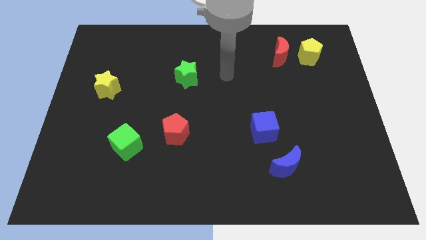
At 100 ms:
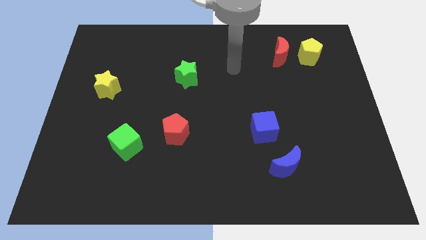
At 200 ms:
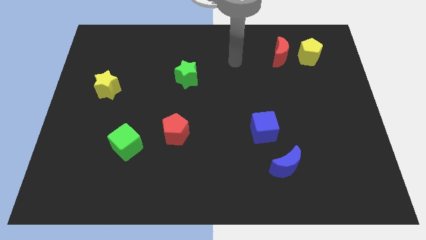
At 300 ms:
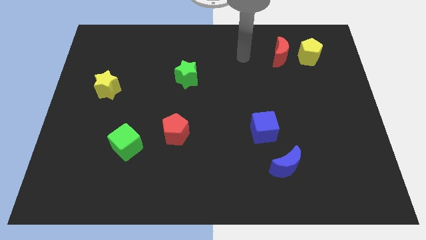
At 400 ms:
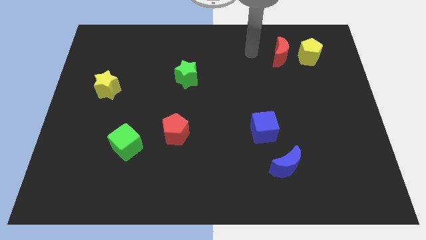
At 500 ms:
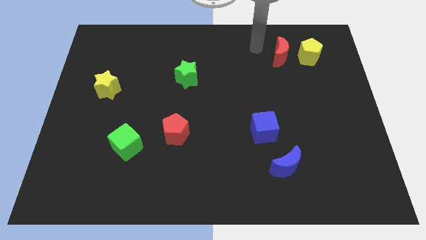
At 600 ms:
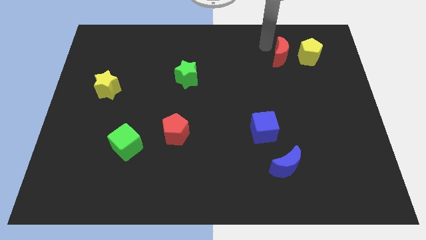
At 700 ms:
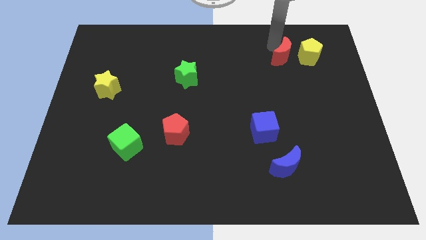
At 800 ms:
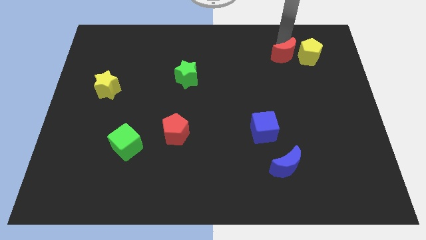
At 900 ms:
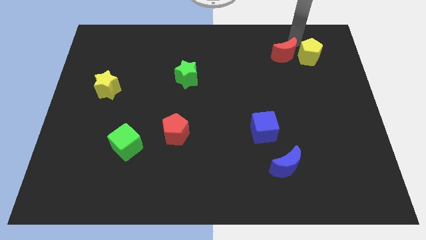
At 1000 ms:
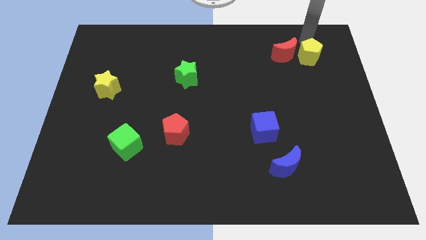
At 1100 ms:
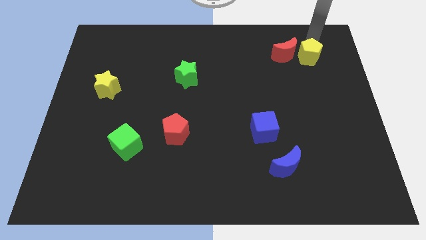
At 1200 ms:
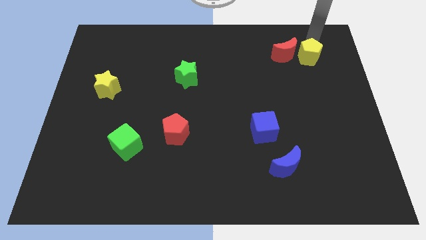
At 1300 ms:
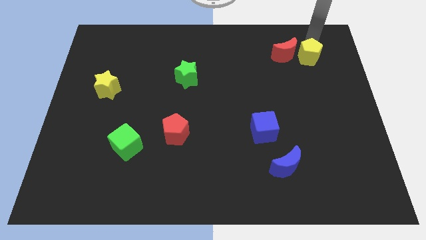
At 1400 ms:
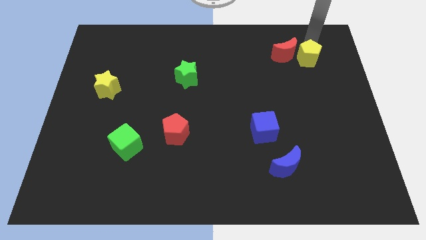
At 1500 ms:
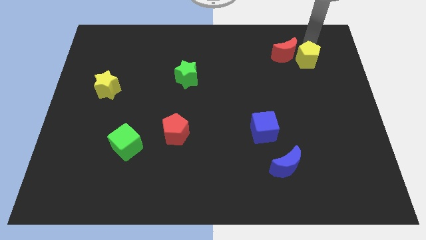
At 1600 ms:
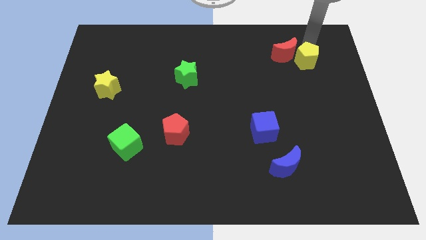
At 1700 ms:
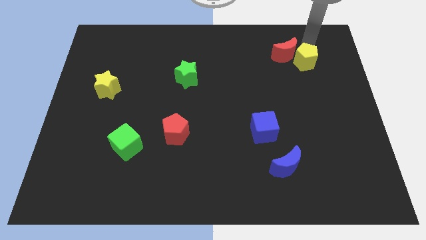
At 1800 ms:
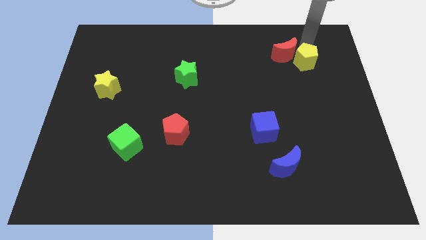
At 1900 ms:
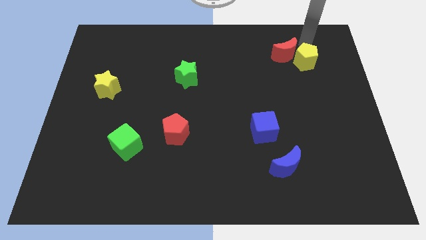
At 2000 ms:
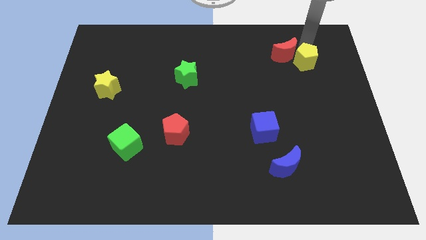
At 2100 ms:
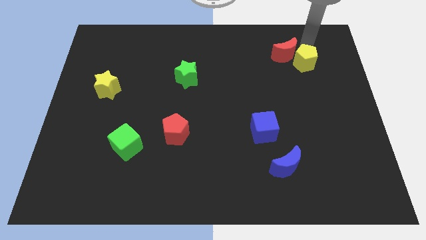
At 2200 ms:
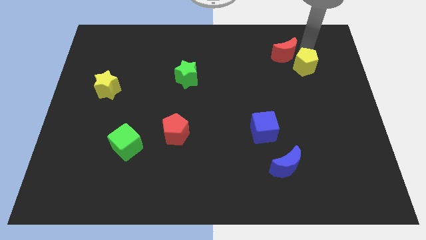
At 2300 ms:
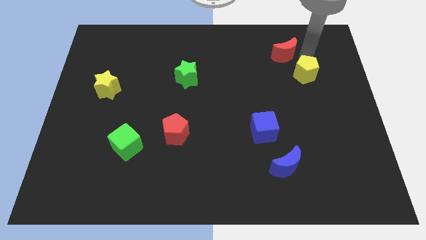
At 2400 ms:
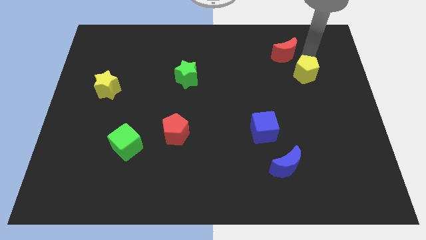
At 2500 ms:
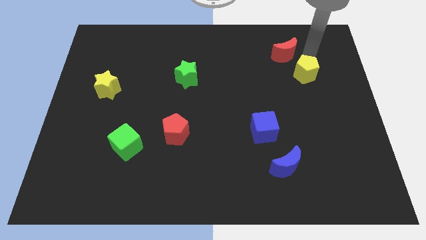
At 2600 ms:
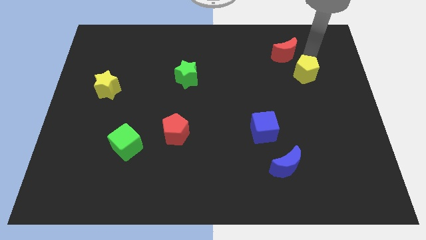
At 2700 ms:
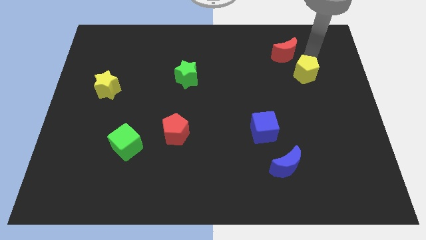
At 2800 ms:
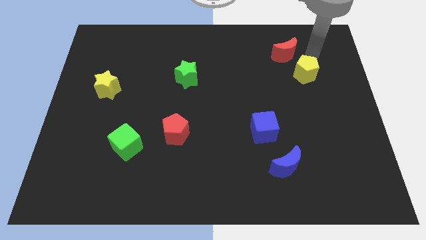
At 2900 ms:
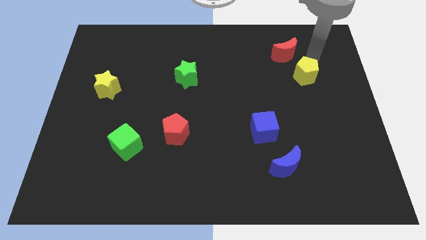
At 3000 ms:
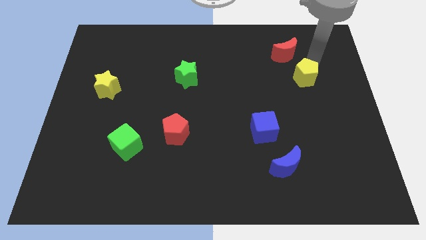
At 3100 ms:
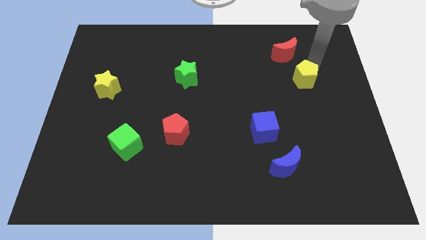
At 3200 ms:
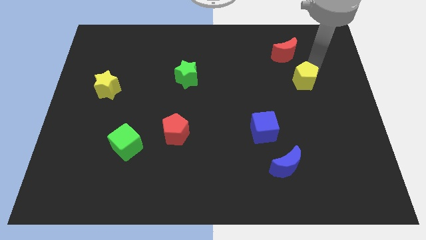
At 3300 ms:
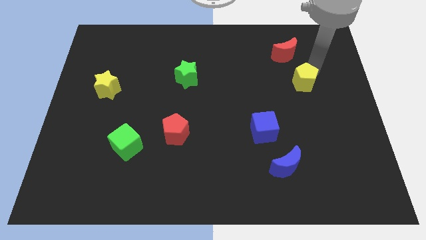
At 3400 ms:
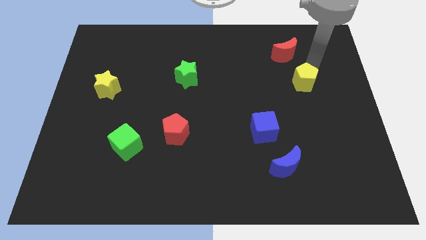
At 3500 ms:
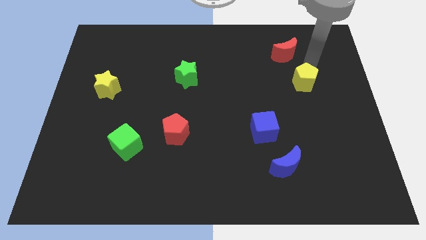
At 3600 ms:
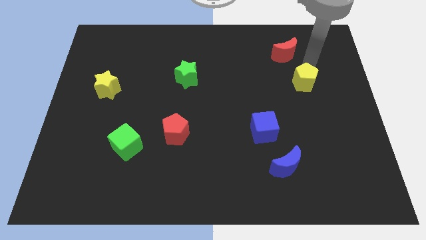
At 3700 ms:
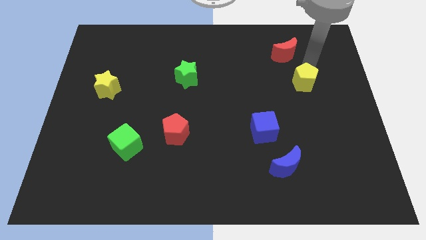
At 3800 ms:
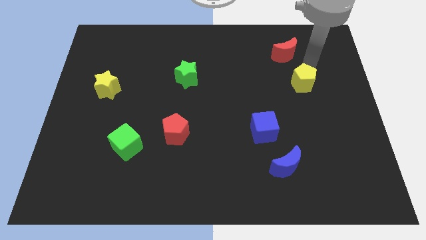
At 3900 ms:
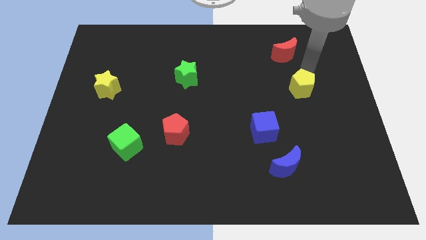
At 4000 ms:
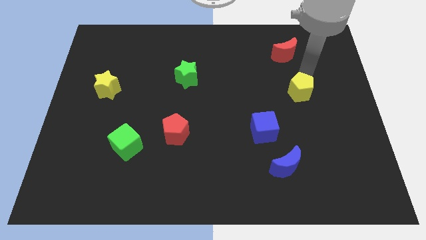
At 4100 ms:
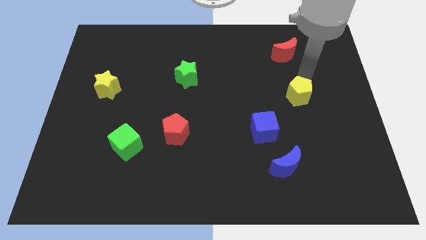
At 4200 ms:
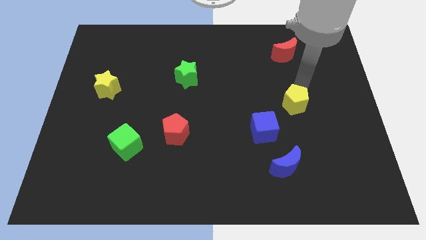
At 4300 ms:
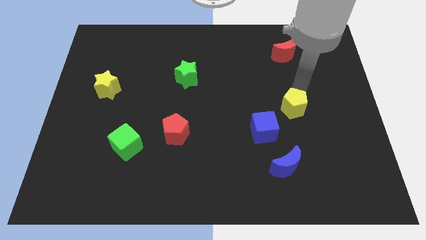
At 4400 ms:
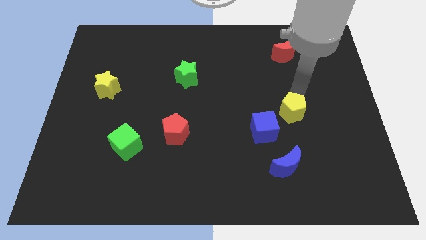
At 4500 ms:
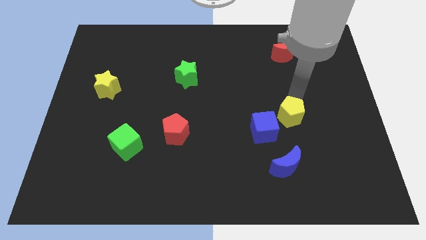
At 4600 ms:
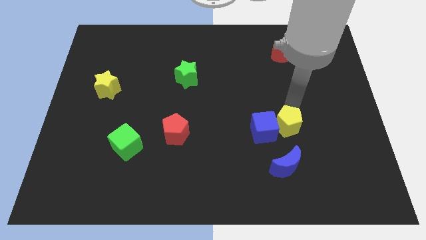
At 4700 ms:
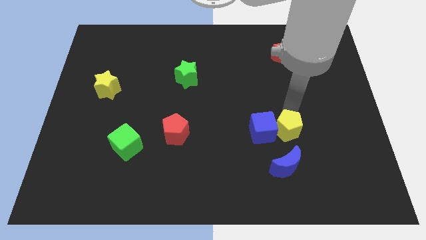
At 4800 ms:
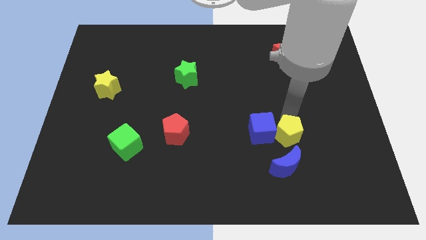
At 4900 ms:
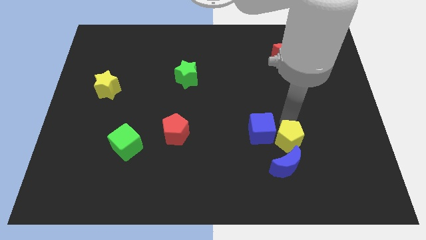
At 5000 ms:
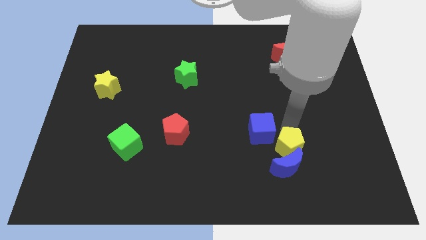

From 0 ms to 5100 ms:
slide the yellow pentagon close to the blue moon

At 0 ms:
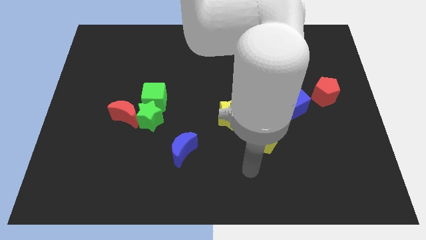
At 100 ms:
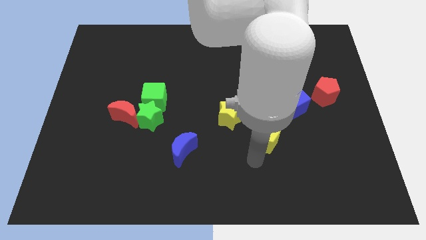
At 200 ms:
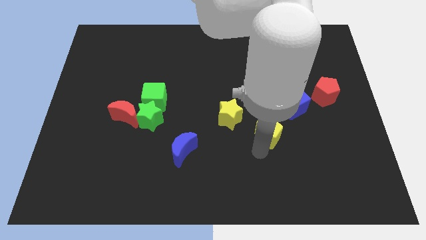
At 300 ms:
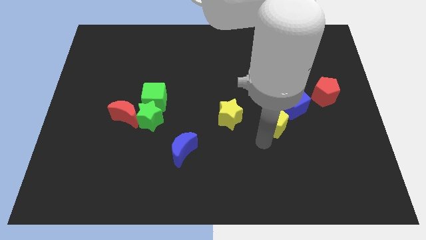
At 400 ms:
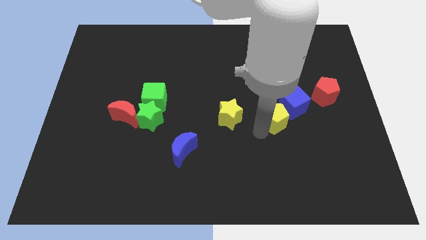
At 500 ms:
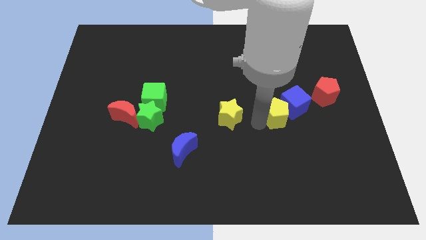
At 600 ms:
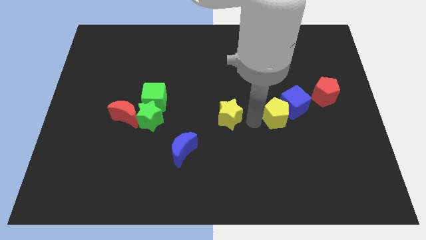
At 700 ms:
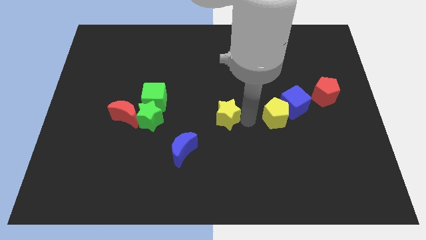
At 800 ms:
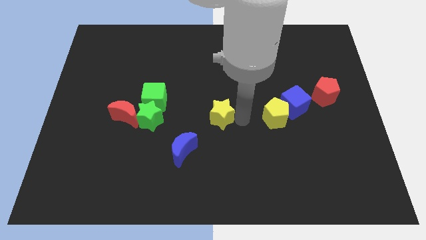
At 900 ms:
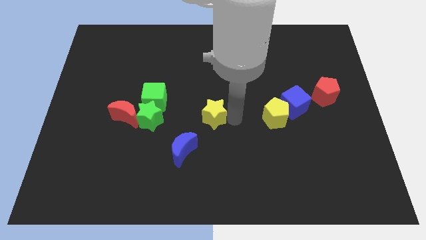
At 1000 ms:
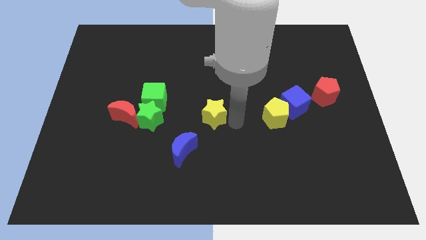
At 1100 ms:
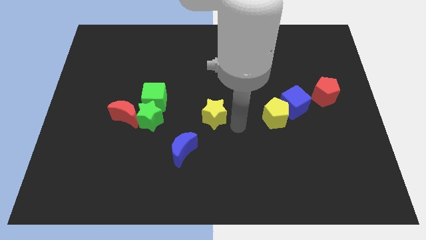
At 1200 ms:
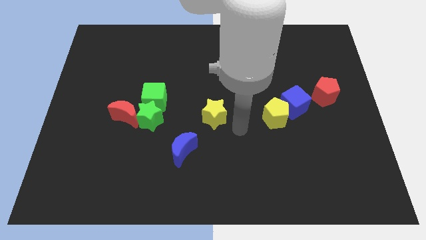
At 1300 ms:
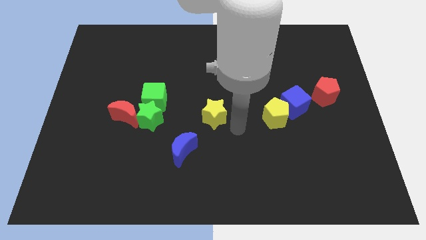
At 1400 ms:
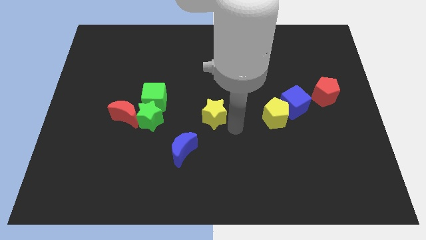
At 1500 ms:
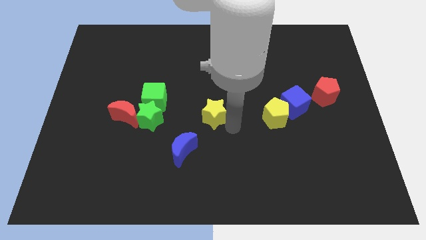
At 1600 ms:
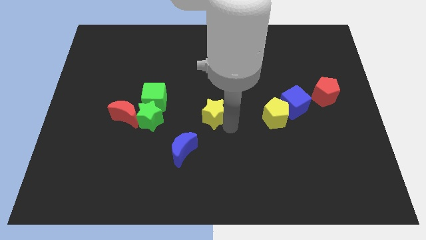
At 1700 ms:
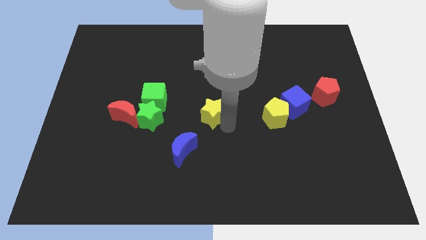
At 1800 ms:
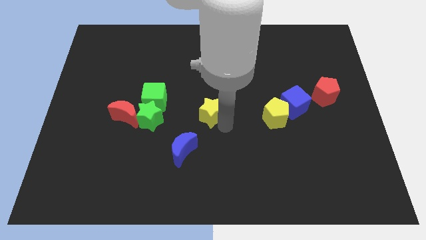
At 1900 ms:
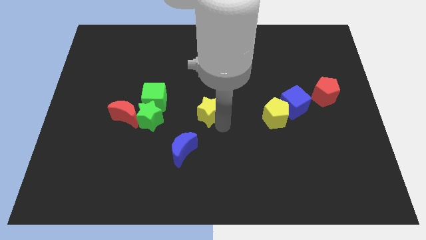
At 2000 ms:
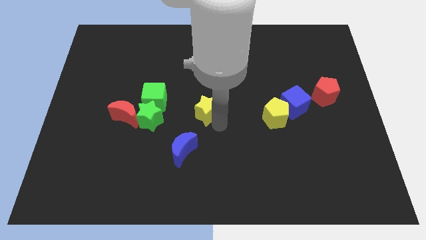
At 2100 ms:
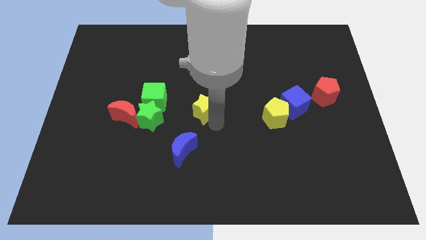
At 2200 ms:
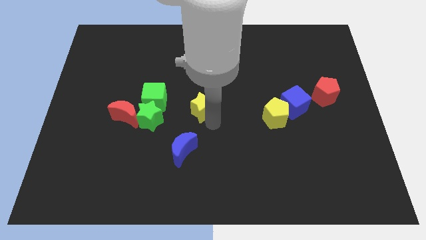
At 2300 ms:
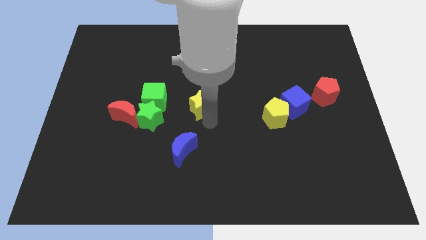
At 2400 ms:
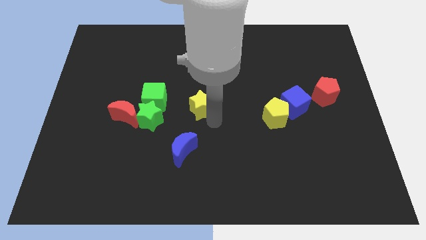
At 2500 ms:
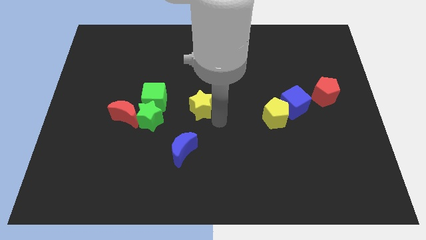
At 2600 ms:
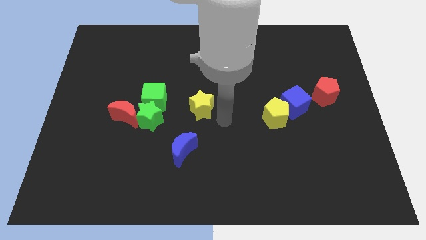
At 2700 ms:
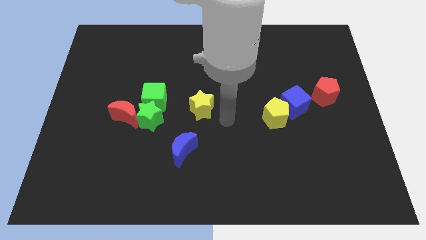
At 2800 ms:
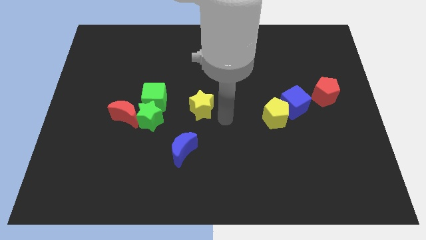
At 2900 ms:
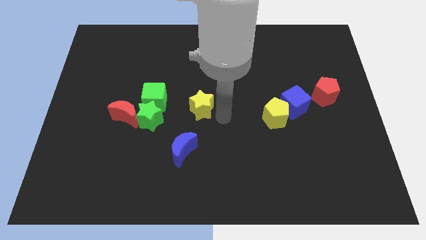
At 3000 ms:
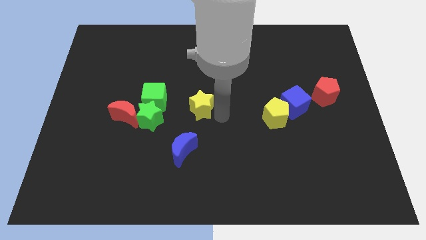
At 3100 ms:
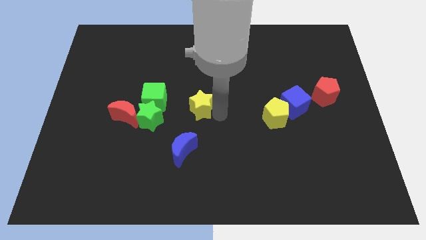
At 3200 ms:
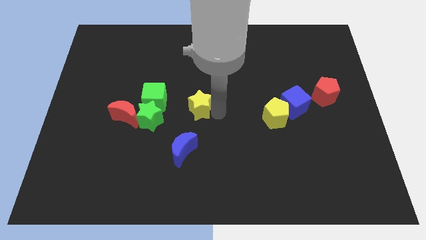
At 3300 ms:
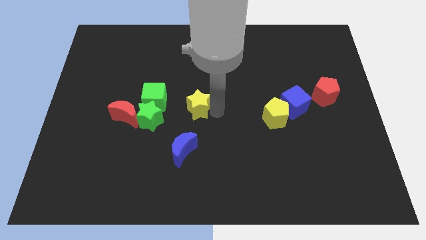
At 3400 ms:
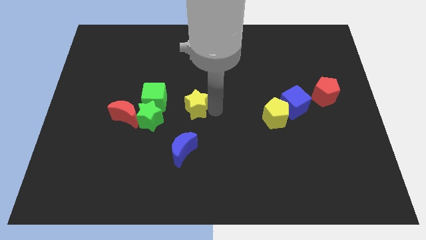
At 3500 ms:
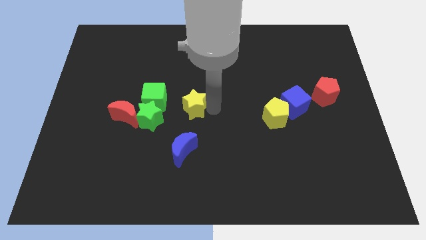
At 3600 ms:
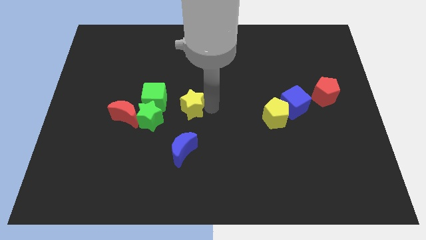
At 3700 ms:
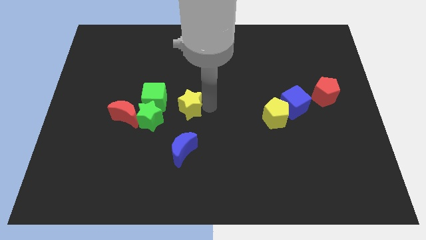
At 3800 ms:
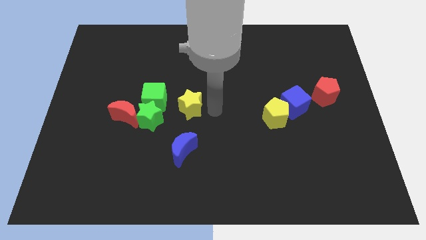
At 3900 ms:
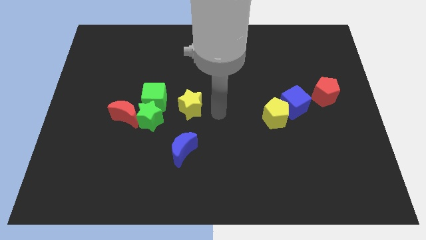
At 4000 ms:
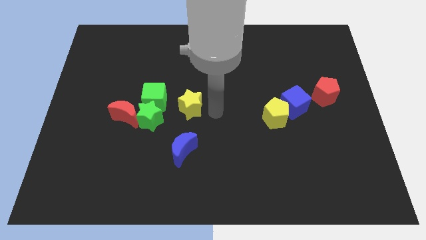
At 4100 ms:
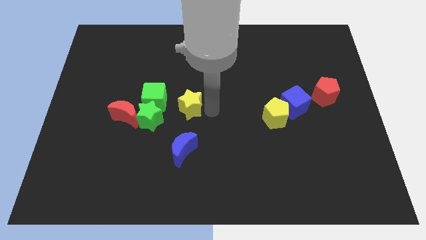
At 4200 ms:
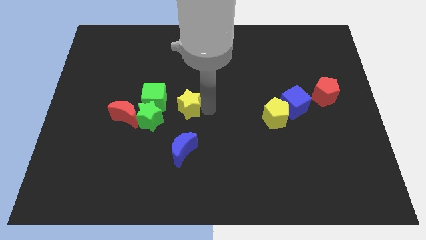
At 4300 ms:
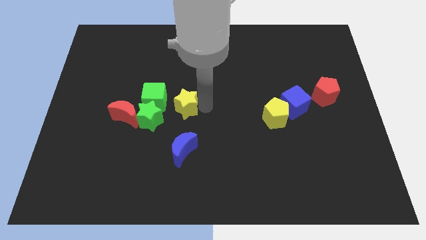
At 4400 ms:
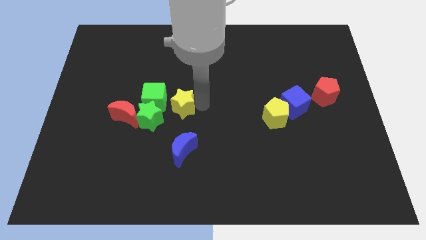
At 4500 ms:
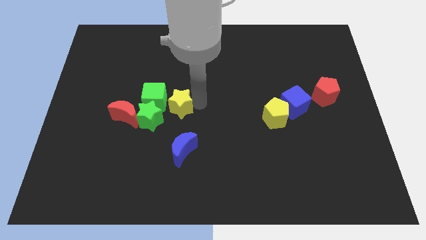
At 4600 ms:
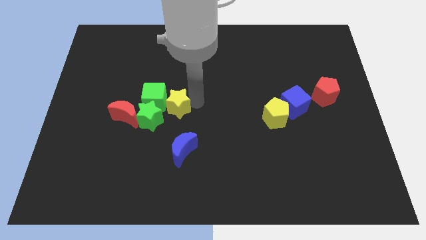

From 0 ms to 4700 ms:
slide the yellow star towards the green cube
